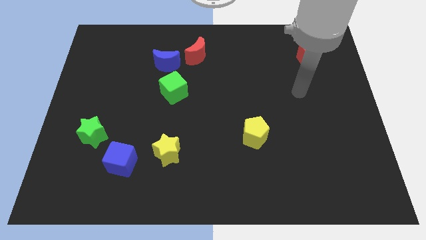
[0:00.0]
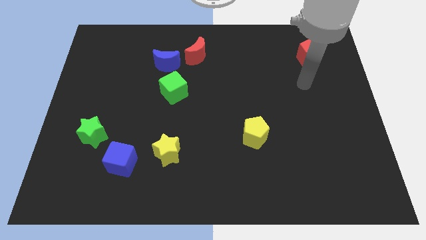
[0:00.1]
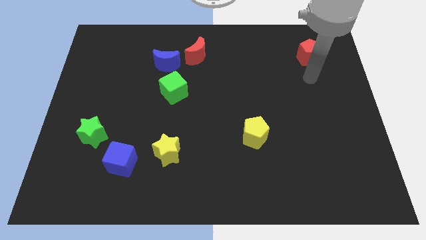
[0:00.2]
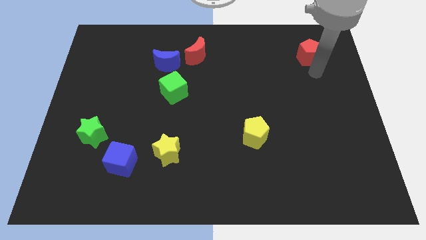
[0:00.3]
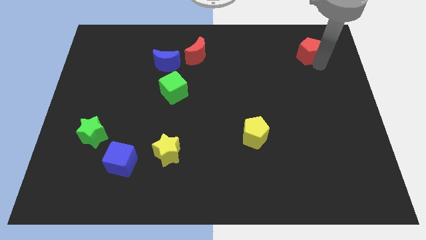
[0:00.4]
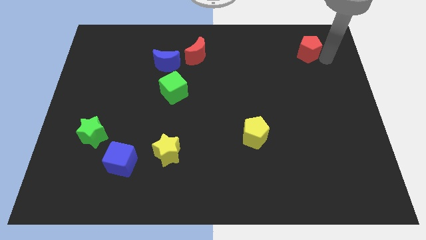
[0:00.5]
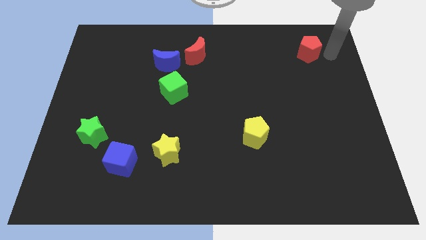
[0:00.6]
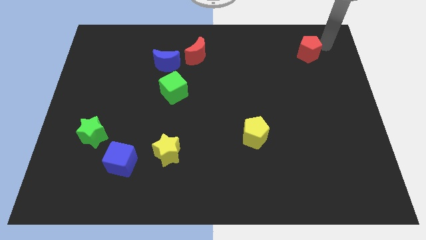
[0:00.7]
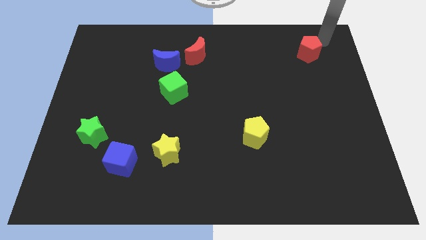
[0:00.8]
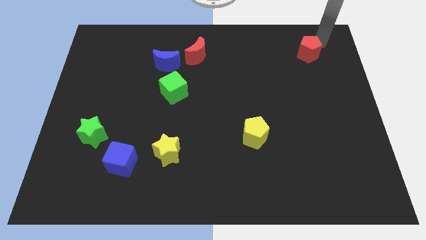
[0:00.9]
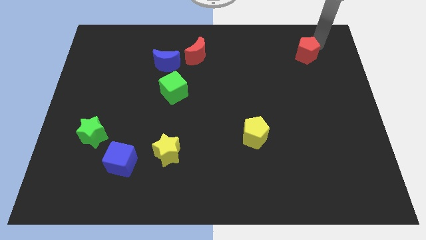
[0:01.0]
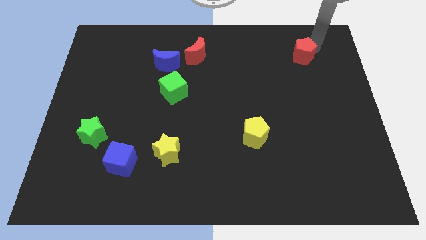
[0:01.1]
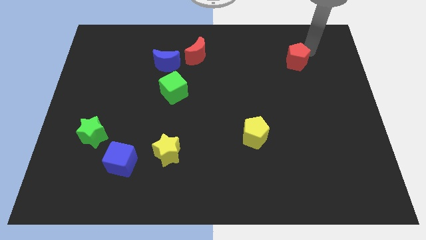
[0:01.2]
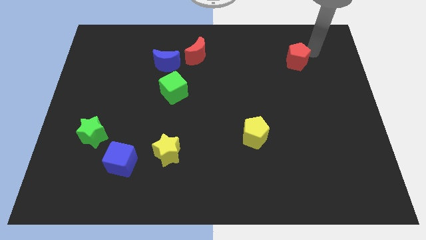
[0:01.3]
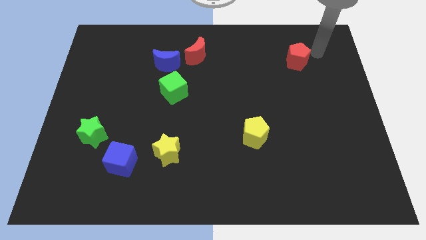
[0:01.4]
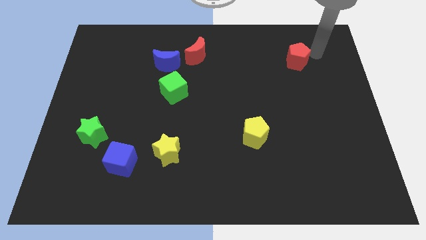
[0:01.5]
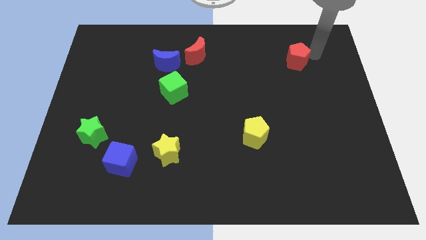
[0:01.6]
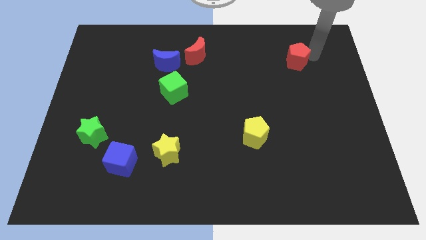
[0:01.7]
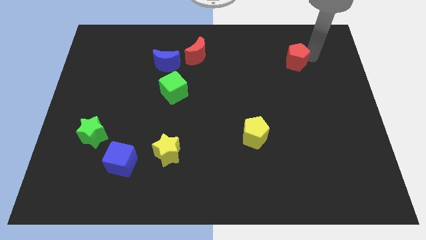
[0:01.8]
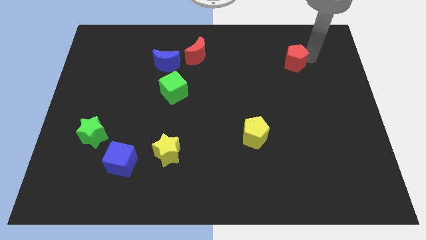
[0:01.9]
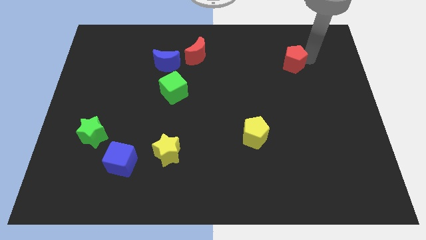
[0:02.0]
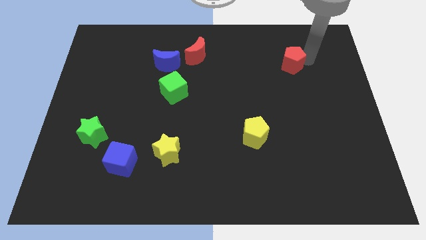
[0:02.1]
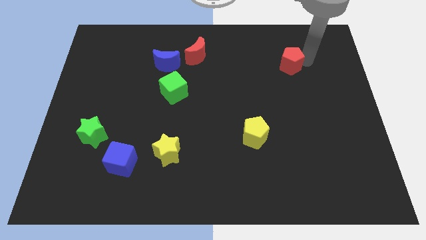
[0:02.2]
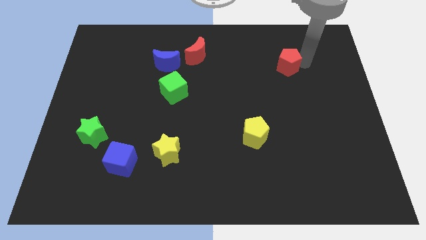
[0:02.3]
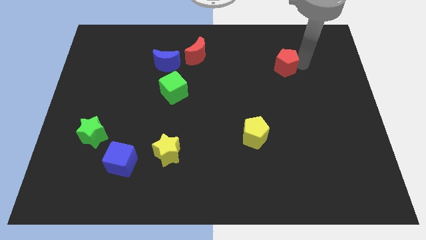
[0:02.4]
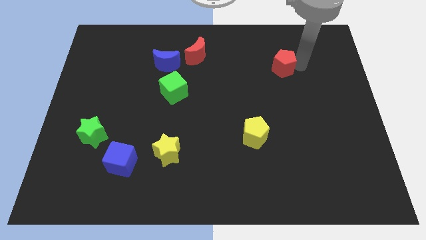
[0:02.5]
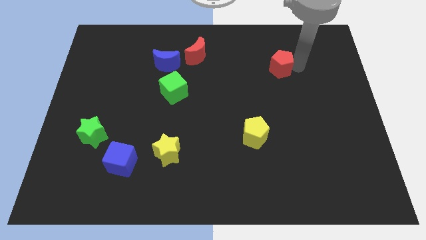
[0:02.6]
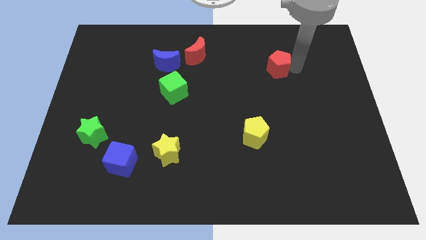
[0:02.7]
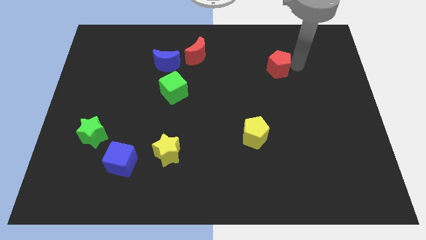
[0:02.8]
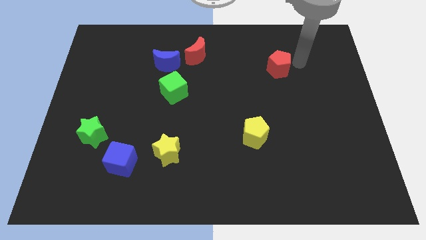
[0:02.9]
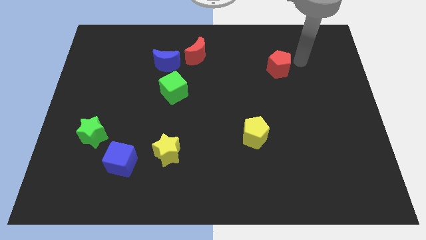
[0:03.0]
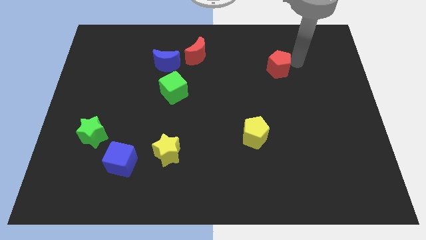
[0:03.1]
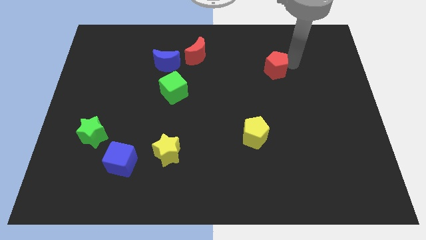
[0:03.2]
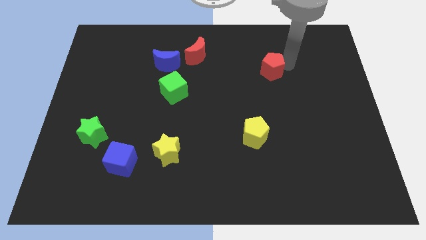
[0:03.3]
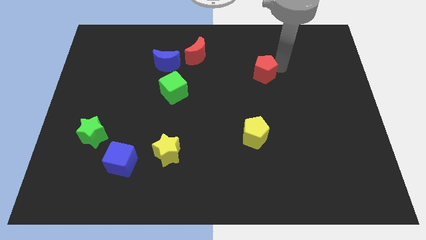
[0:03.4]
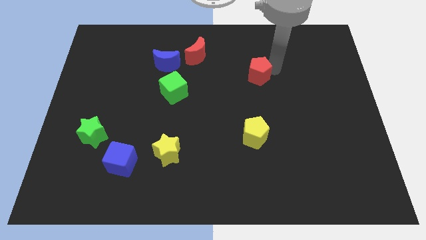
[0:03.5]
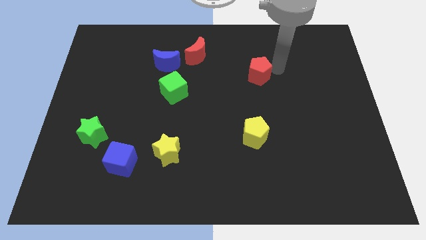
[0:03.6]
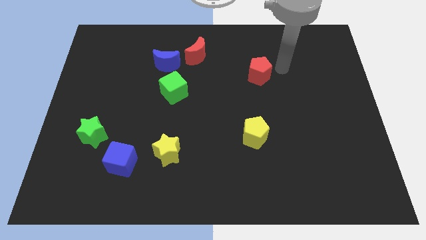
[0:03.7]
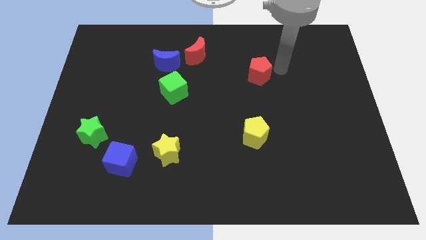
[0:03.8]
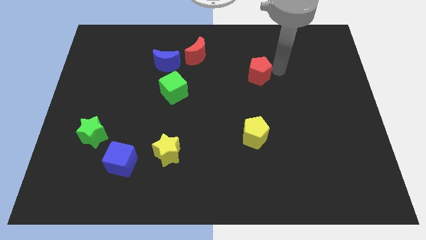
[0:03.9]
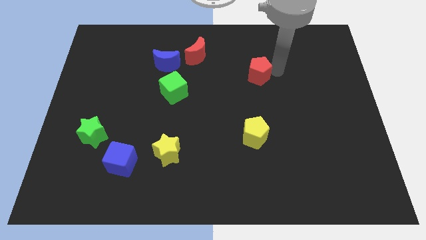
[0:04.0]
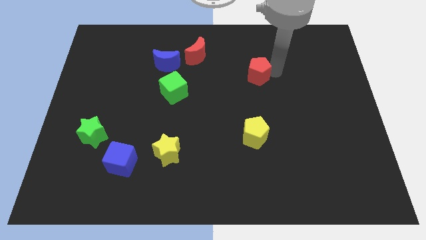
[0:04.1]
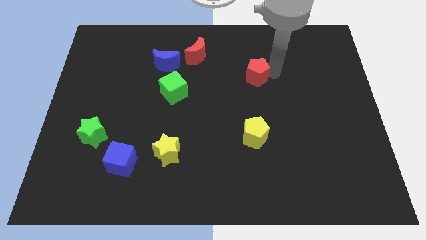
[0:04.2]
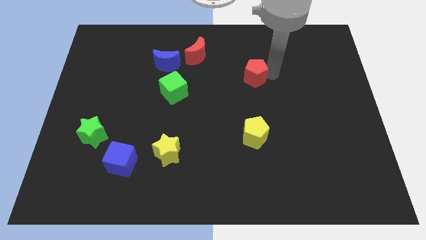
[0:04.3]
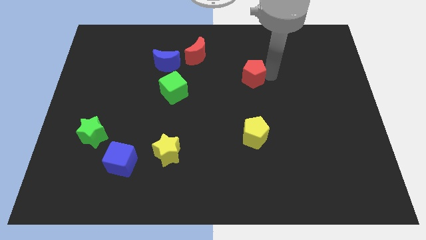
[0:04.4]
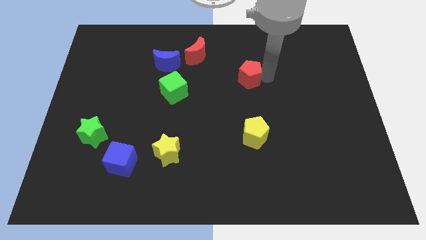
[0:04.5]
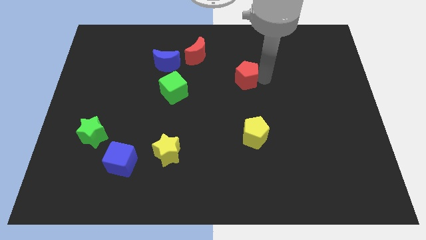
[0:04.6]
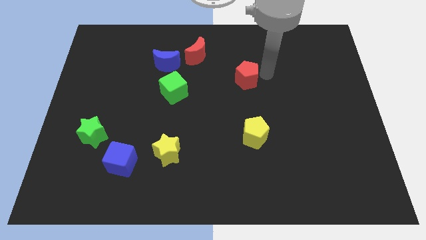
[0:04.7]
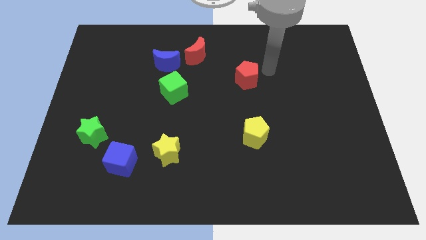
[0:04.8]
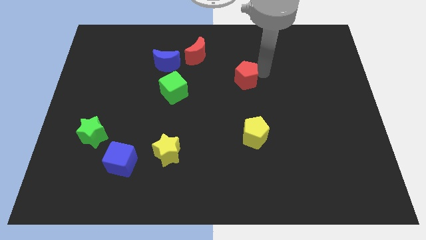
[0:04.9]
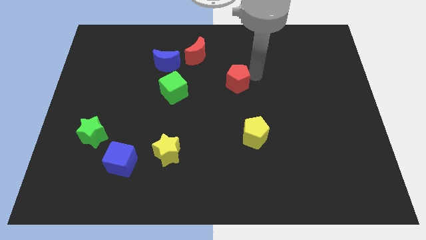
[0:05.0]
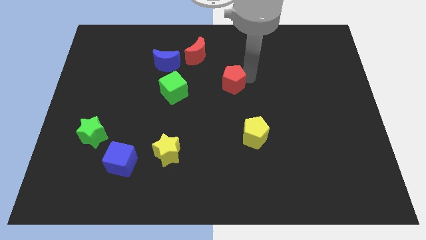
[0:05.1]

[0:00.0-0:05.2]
put the red pentagon to the right of the green cube

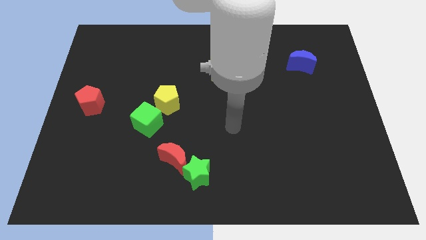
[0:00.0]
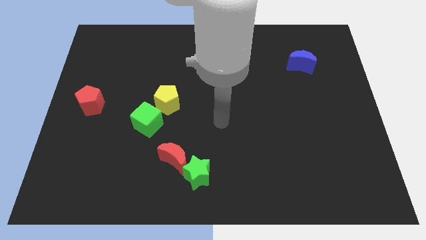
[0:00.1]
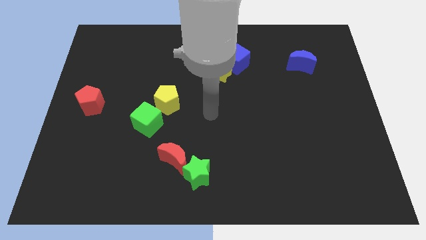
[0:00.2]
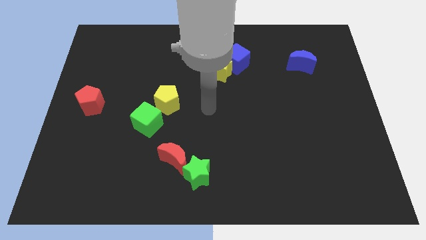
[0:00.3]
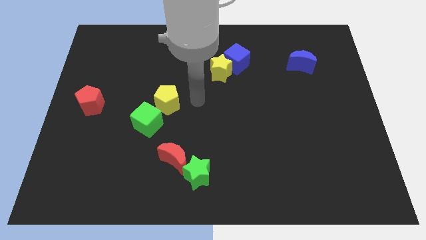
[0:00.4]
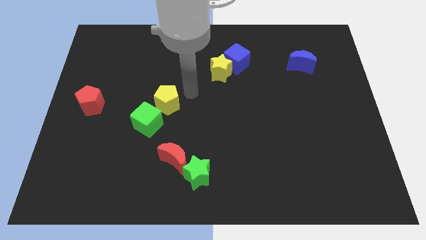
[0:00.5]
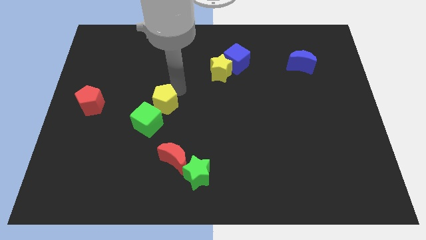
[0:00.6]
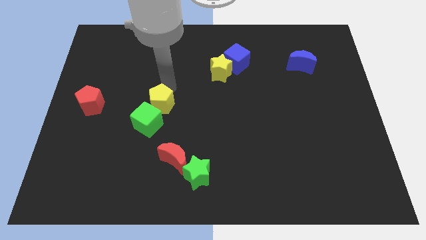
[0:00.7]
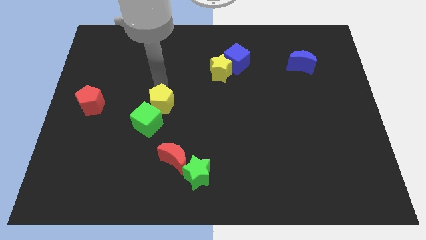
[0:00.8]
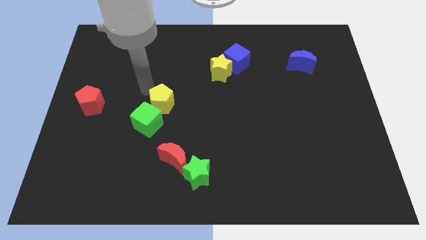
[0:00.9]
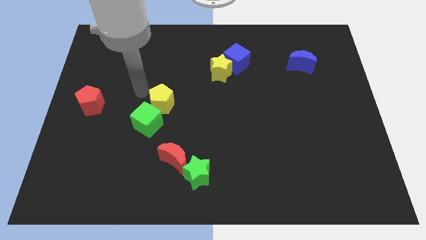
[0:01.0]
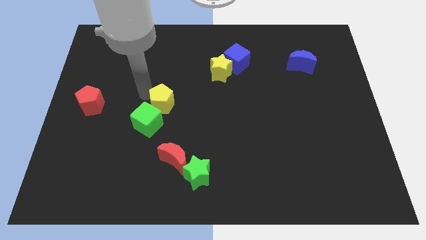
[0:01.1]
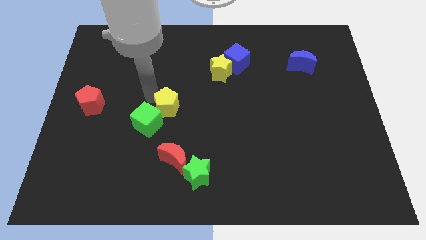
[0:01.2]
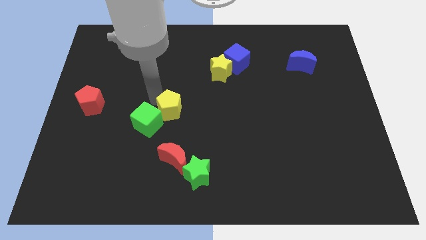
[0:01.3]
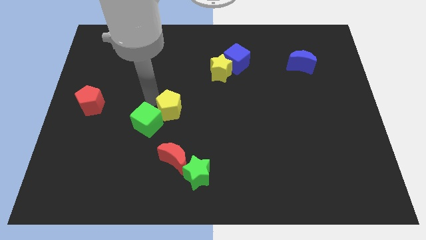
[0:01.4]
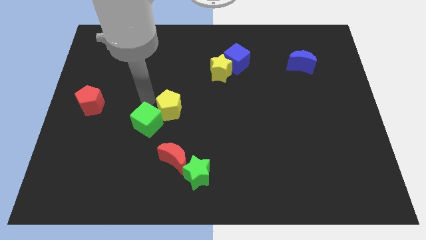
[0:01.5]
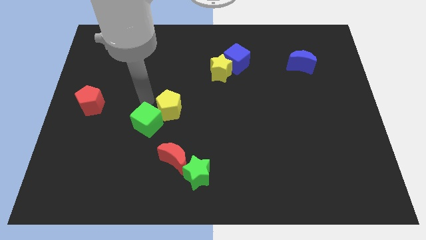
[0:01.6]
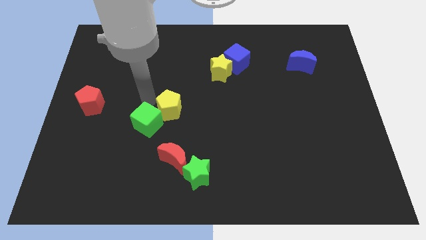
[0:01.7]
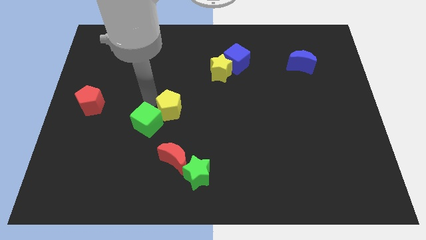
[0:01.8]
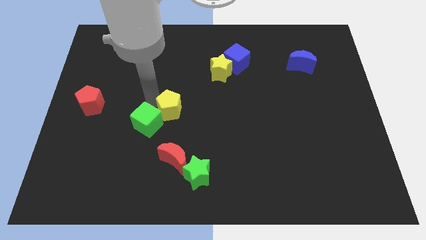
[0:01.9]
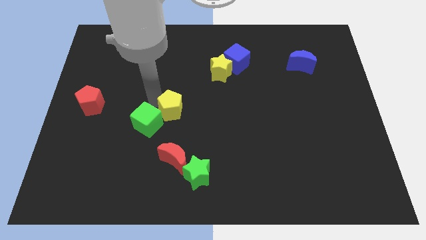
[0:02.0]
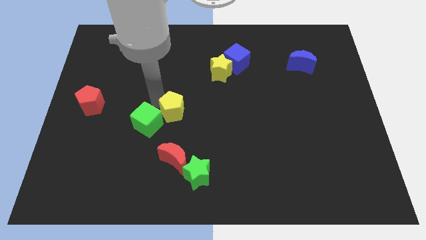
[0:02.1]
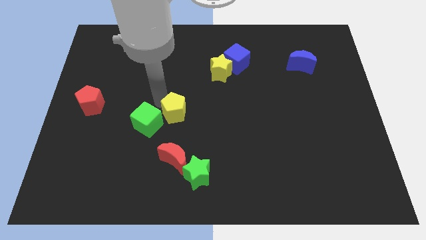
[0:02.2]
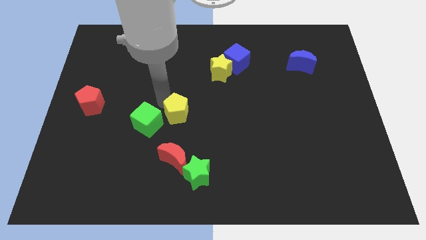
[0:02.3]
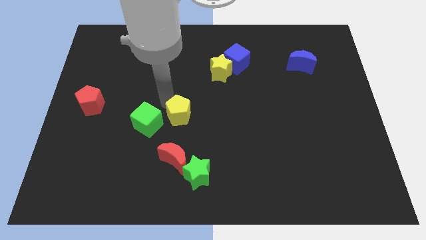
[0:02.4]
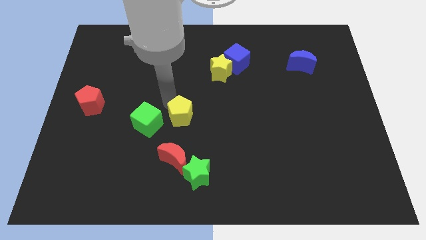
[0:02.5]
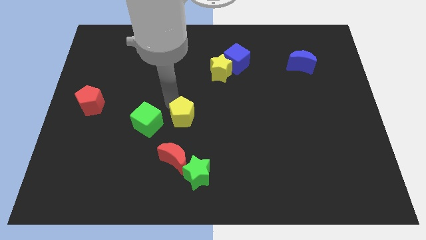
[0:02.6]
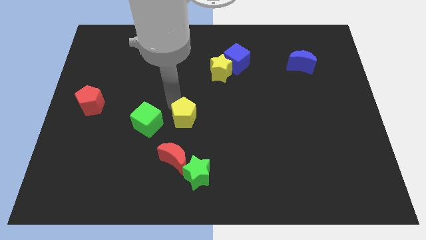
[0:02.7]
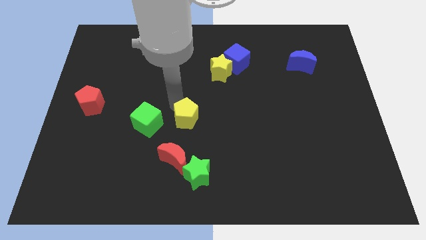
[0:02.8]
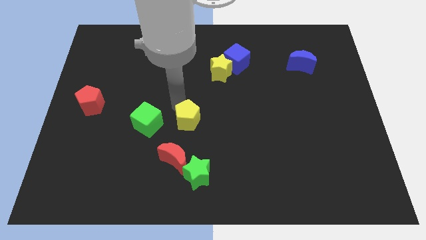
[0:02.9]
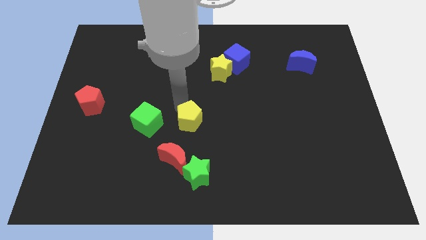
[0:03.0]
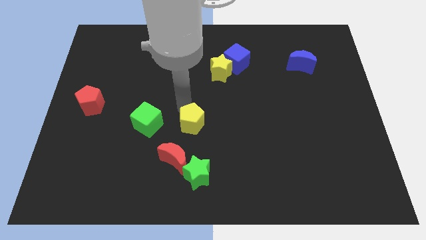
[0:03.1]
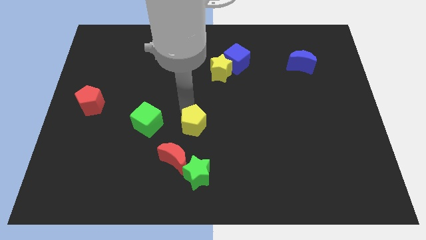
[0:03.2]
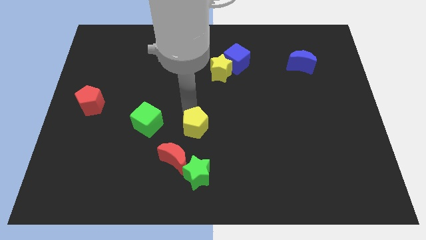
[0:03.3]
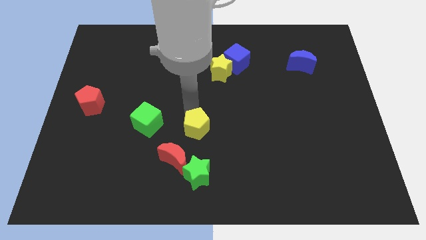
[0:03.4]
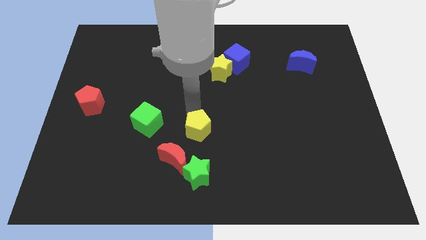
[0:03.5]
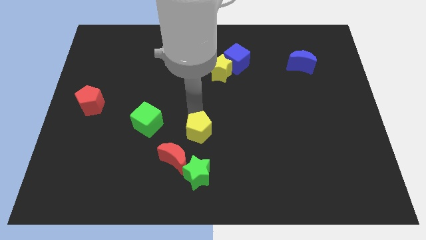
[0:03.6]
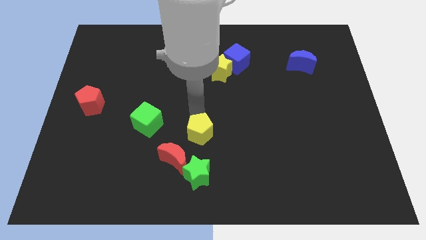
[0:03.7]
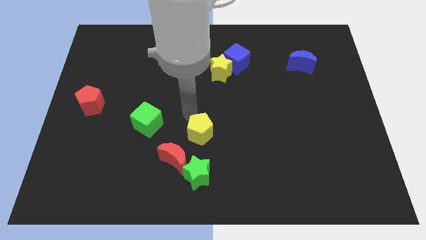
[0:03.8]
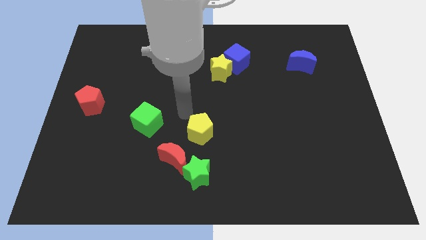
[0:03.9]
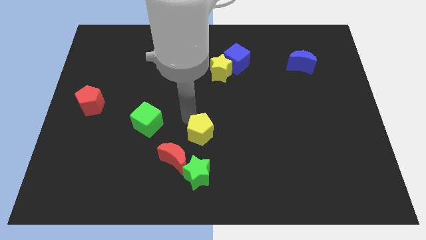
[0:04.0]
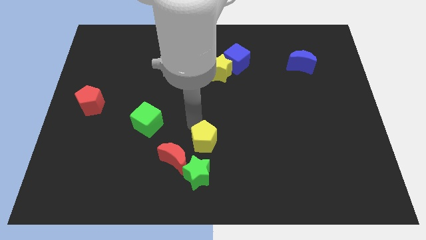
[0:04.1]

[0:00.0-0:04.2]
slide the yellow pentagon to the right of the red moon
